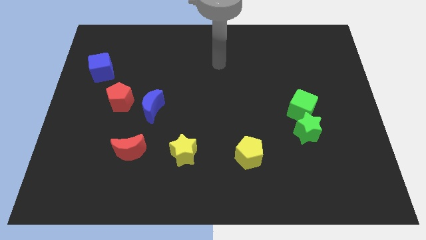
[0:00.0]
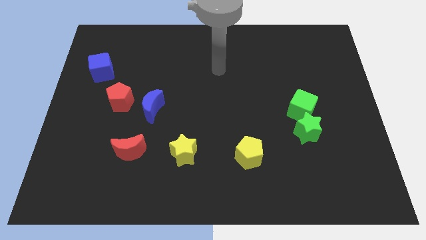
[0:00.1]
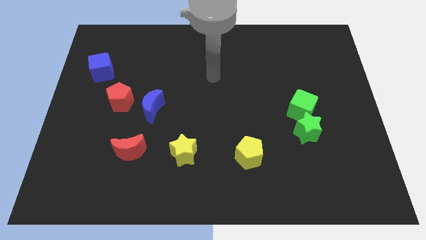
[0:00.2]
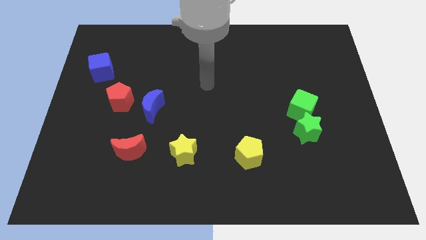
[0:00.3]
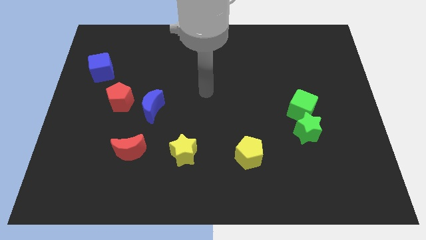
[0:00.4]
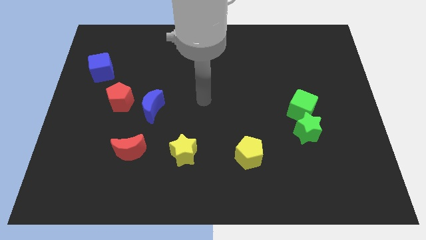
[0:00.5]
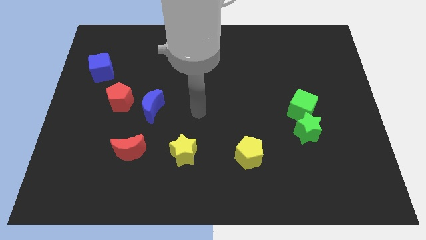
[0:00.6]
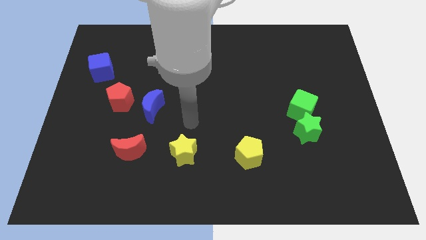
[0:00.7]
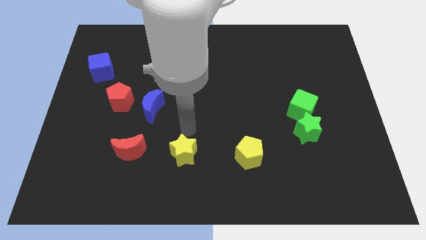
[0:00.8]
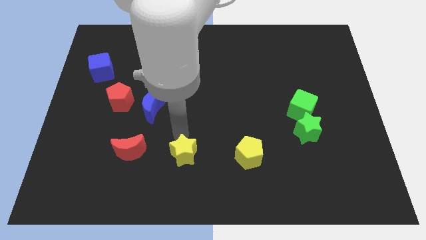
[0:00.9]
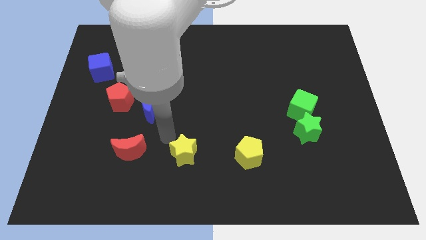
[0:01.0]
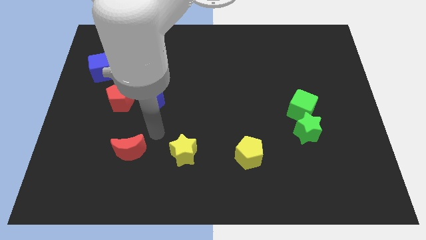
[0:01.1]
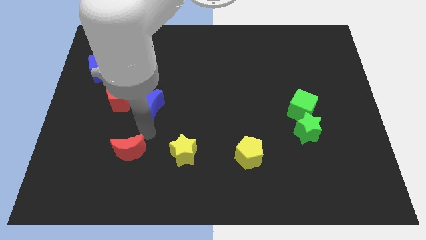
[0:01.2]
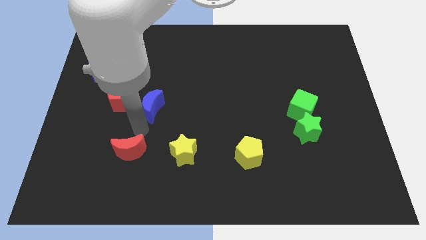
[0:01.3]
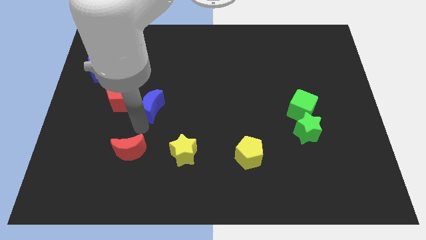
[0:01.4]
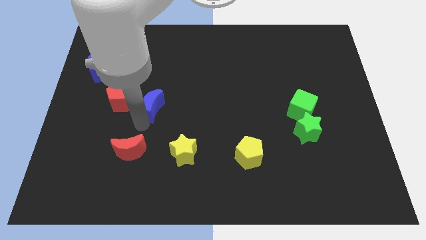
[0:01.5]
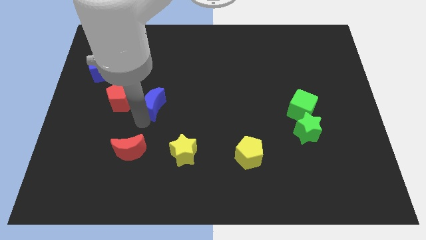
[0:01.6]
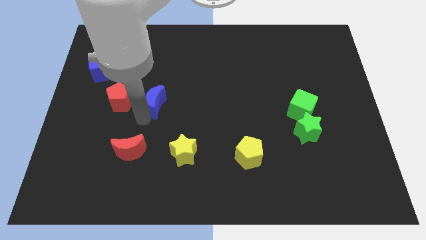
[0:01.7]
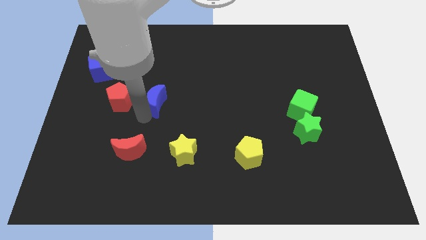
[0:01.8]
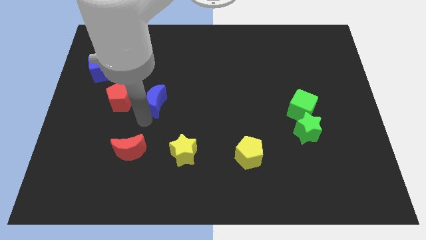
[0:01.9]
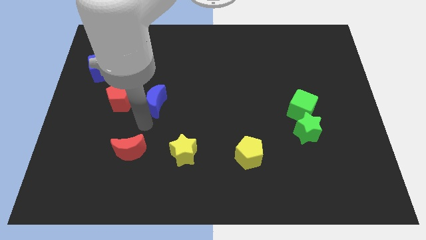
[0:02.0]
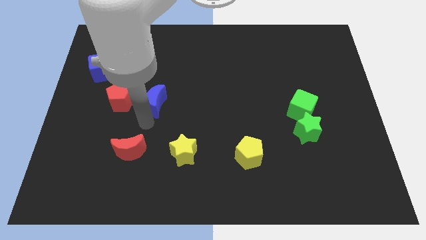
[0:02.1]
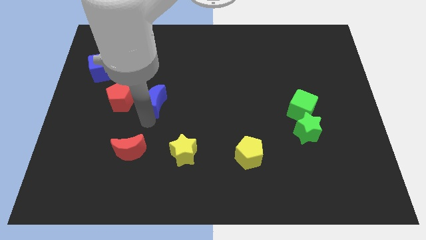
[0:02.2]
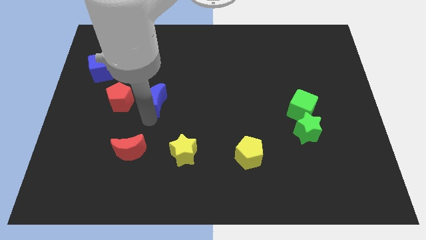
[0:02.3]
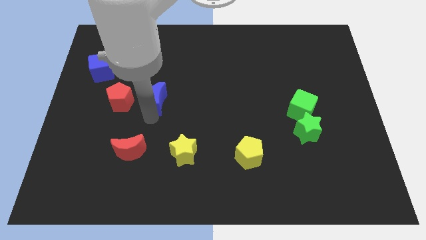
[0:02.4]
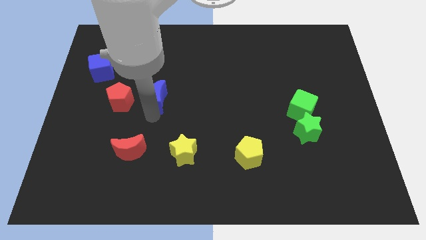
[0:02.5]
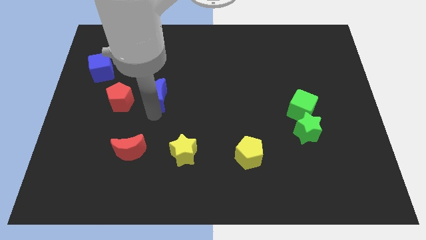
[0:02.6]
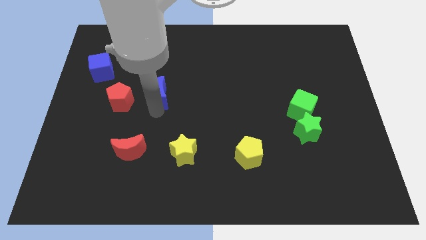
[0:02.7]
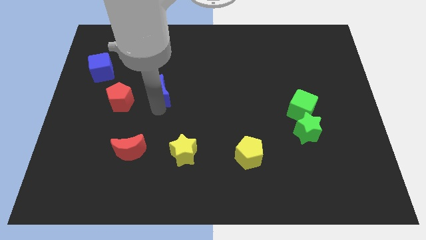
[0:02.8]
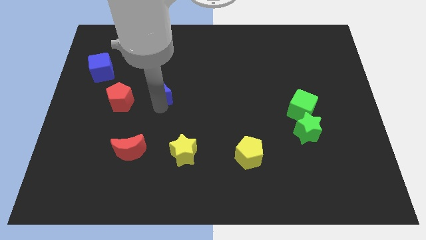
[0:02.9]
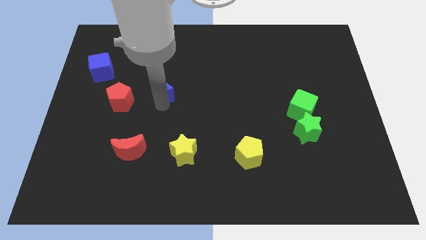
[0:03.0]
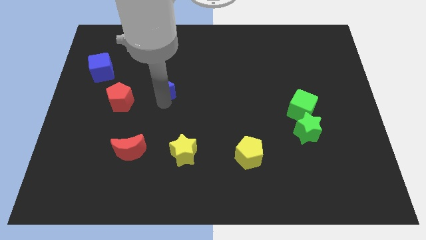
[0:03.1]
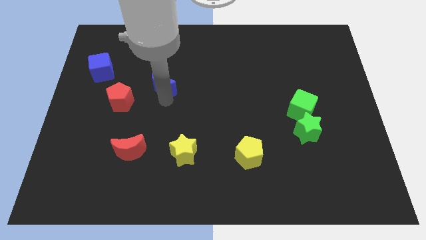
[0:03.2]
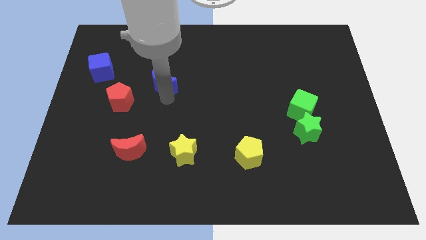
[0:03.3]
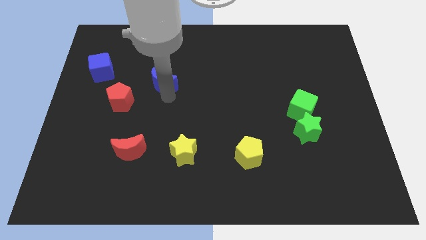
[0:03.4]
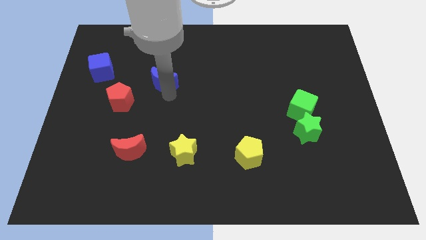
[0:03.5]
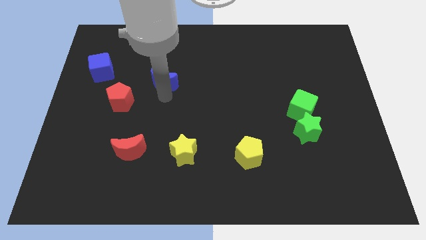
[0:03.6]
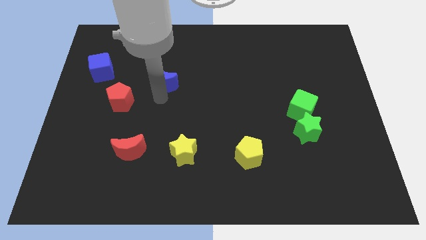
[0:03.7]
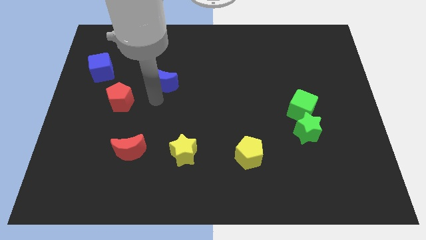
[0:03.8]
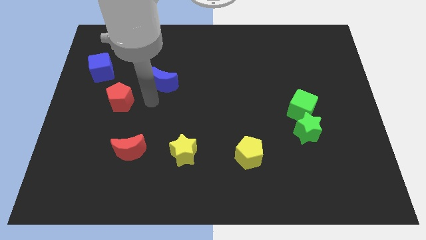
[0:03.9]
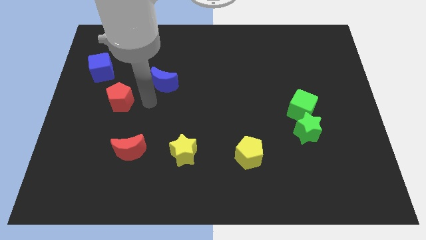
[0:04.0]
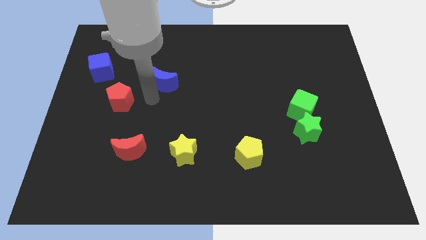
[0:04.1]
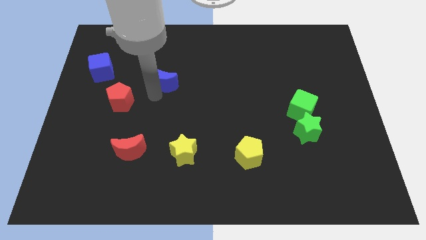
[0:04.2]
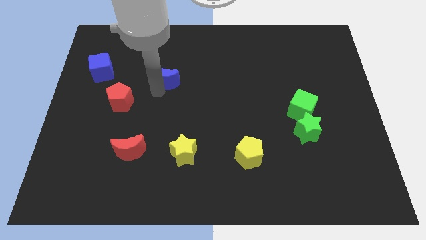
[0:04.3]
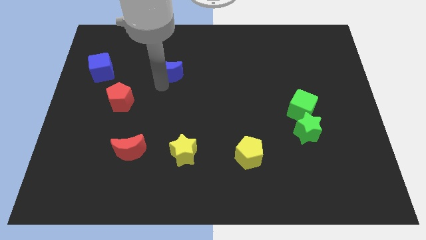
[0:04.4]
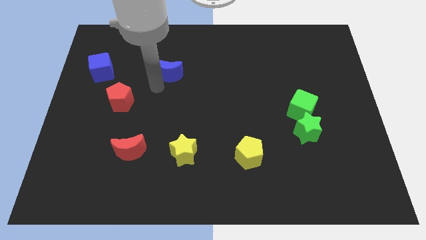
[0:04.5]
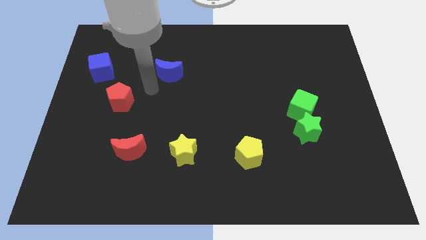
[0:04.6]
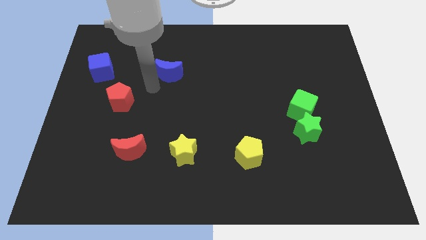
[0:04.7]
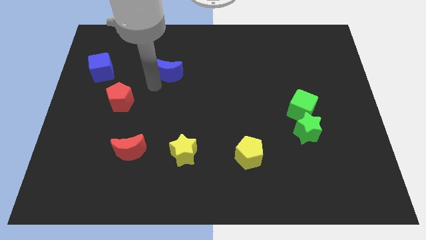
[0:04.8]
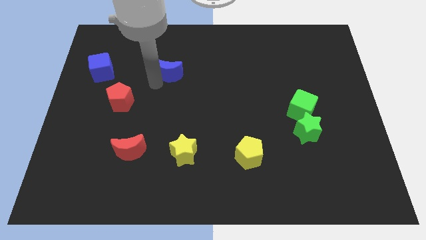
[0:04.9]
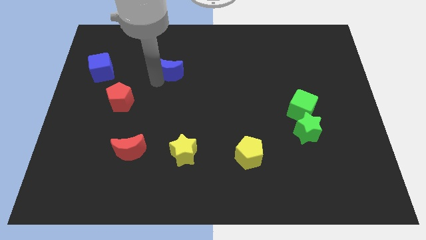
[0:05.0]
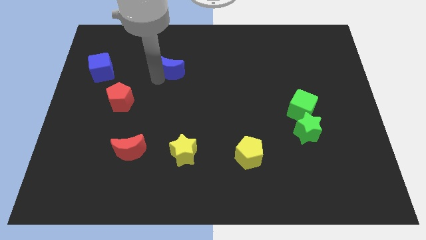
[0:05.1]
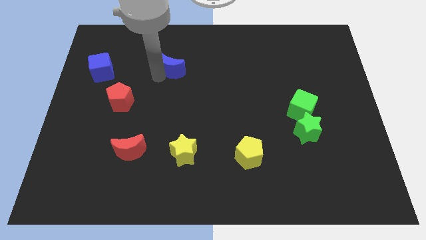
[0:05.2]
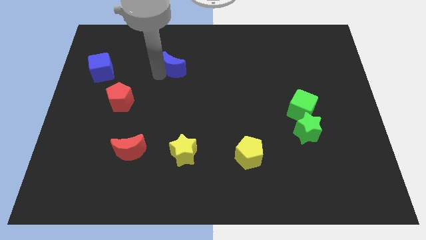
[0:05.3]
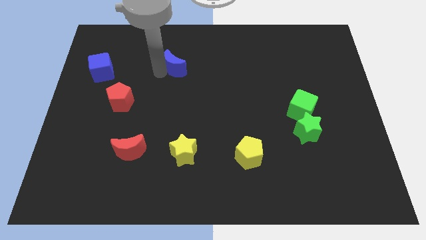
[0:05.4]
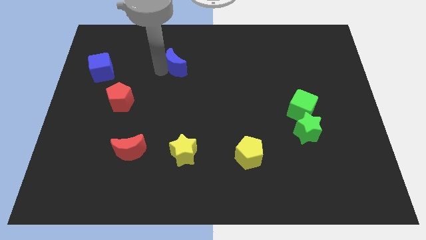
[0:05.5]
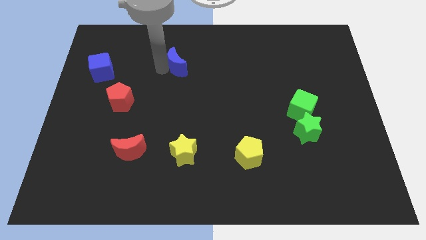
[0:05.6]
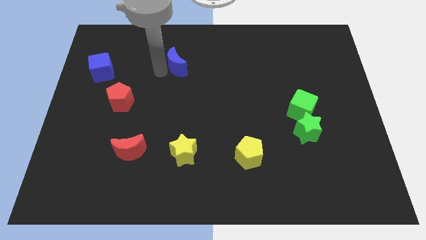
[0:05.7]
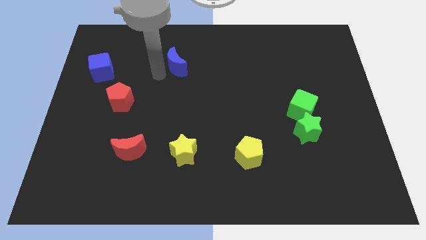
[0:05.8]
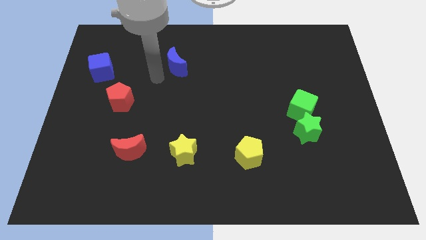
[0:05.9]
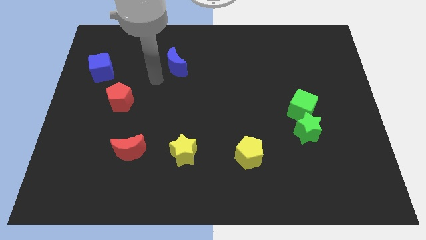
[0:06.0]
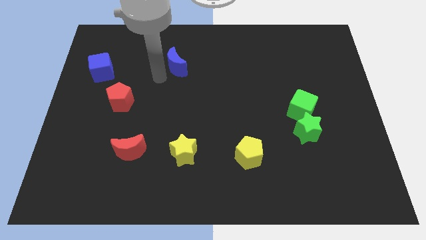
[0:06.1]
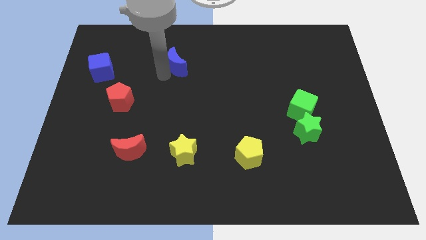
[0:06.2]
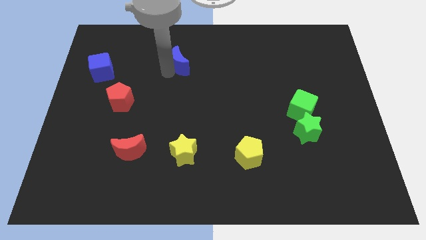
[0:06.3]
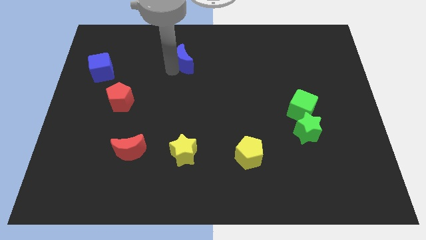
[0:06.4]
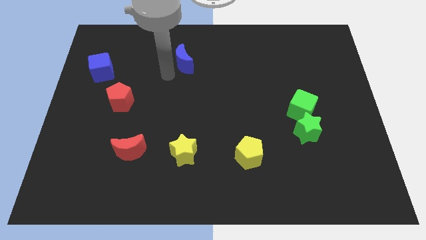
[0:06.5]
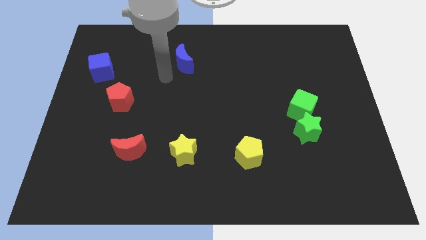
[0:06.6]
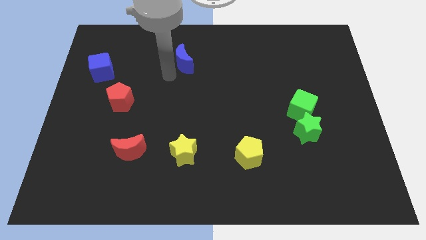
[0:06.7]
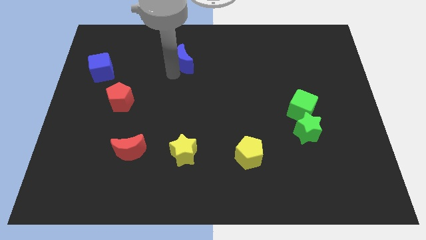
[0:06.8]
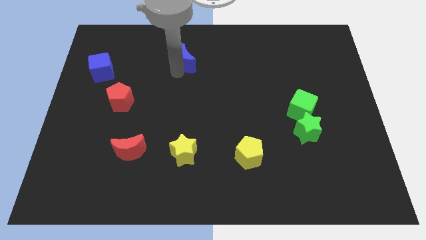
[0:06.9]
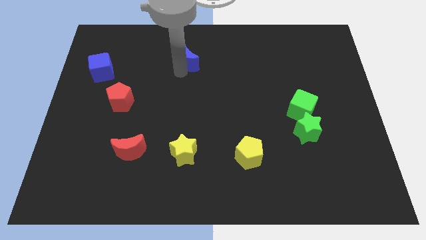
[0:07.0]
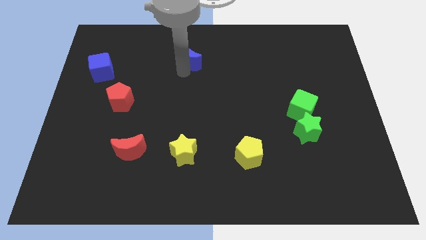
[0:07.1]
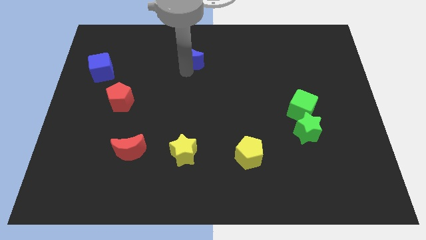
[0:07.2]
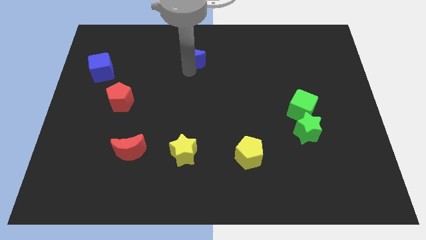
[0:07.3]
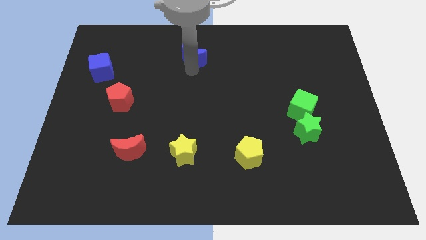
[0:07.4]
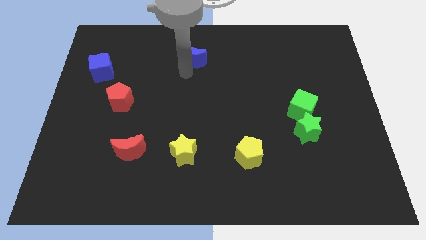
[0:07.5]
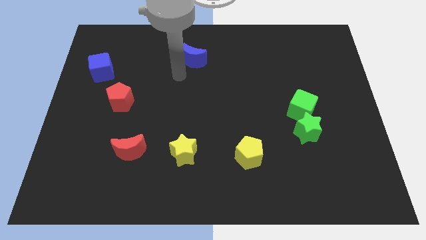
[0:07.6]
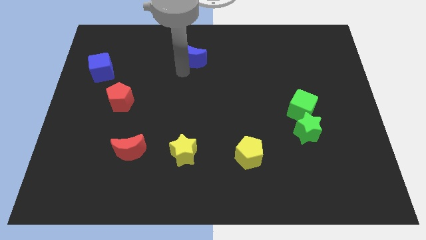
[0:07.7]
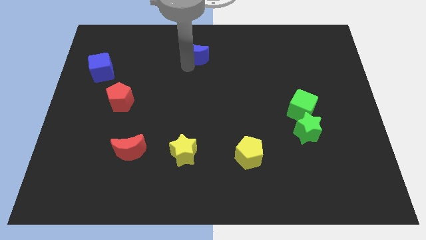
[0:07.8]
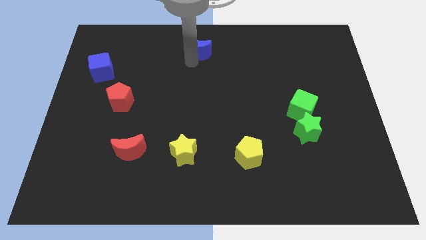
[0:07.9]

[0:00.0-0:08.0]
slide the blue moon to the top
